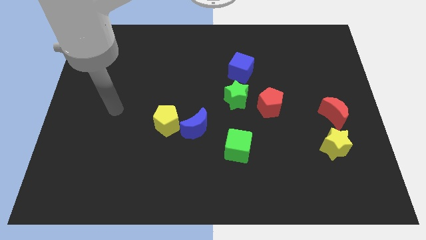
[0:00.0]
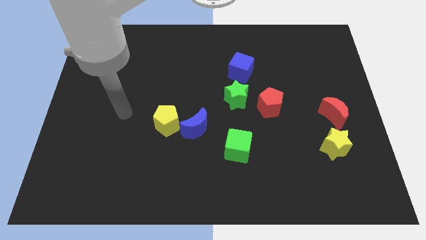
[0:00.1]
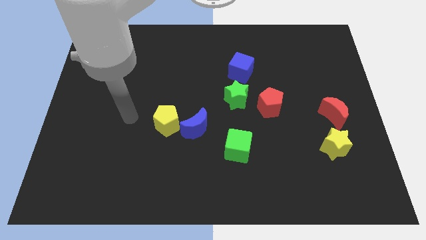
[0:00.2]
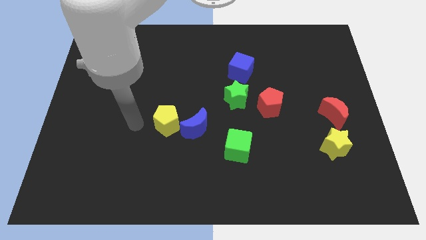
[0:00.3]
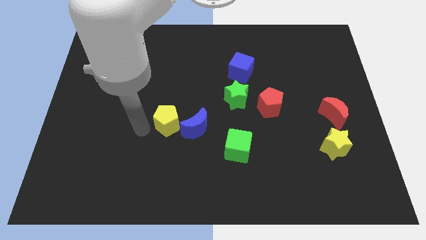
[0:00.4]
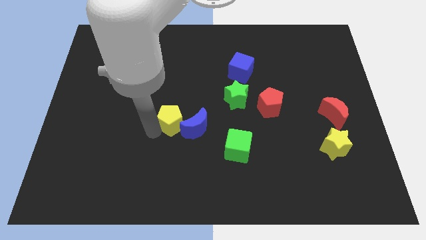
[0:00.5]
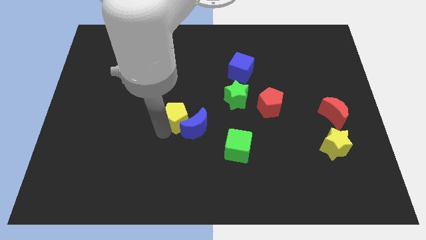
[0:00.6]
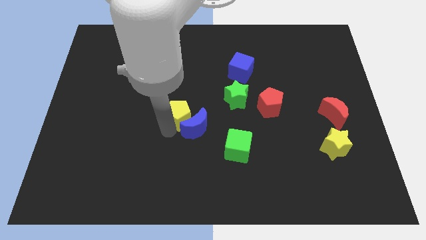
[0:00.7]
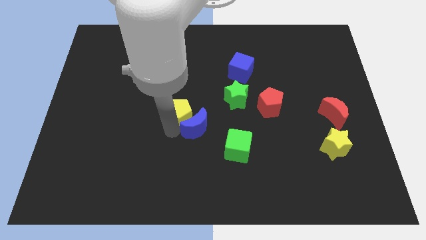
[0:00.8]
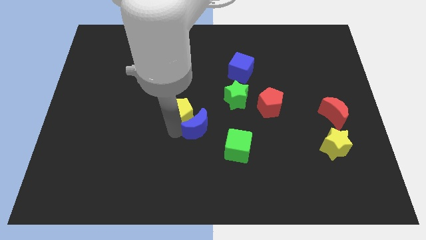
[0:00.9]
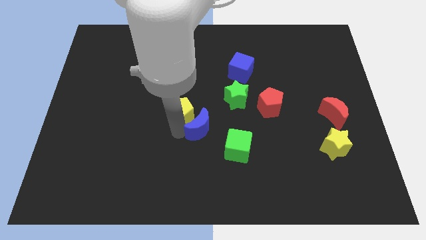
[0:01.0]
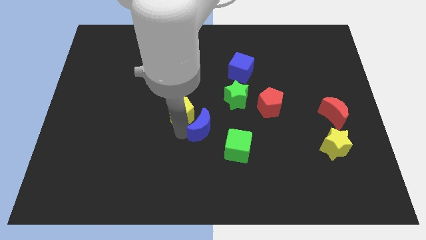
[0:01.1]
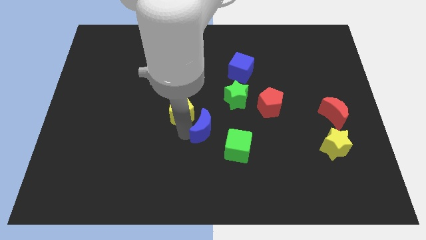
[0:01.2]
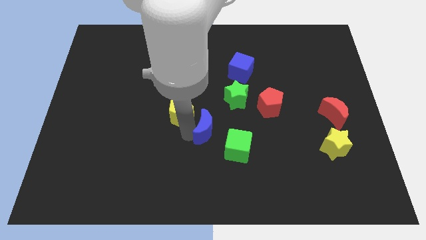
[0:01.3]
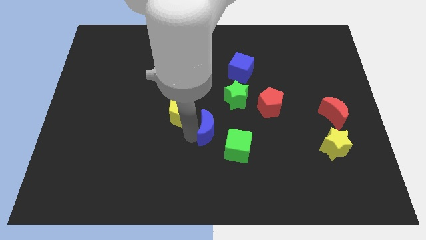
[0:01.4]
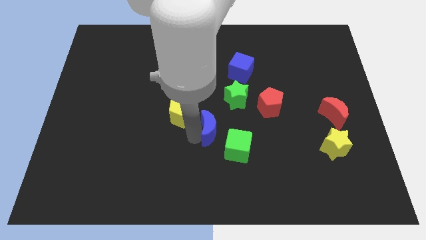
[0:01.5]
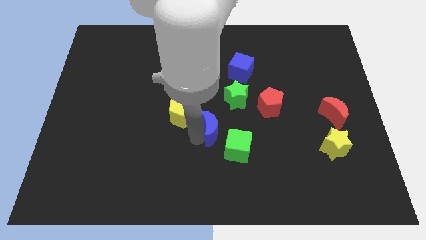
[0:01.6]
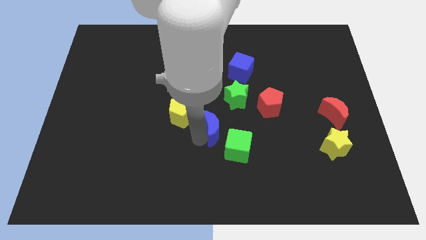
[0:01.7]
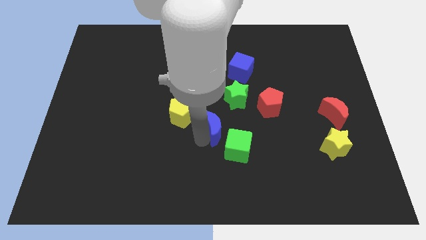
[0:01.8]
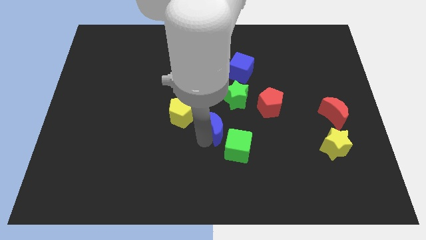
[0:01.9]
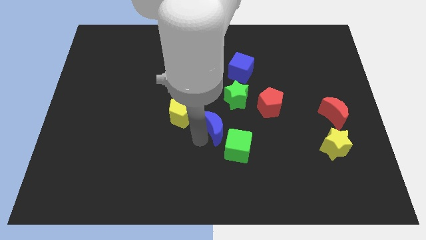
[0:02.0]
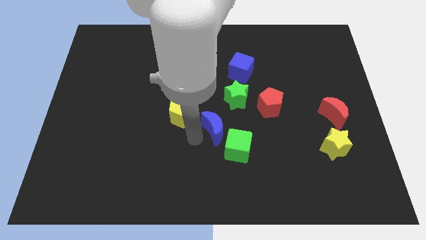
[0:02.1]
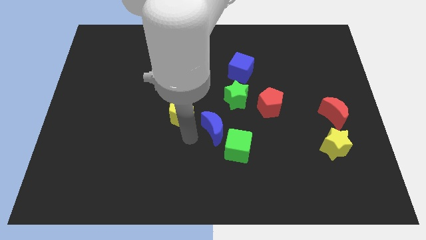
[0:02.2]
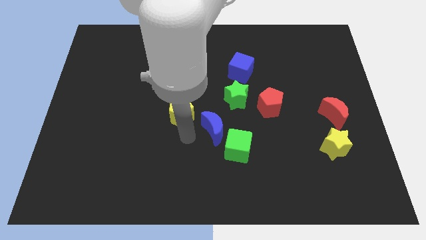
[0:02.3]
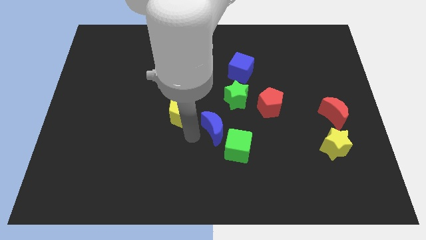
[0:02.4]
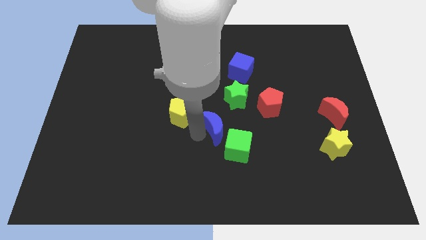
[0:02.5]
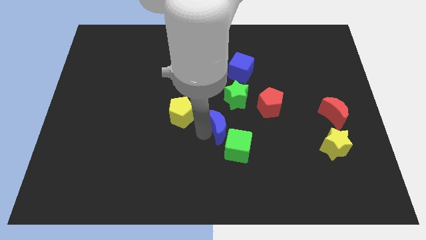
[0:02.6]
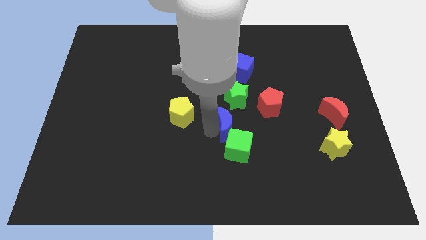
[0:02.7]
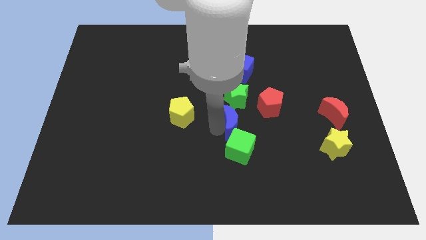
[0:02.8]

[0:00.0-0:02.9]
slightly push the blue moon to the right

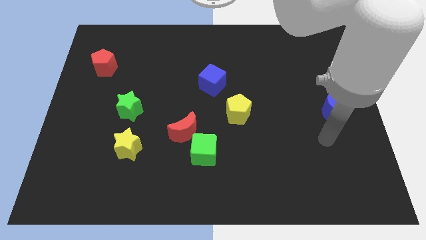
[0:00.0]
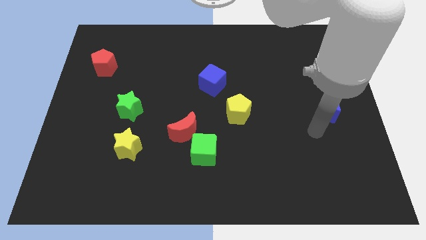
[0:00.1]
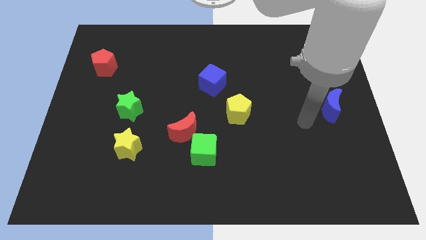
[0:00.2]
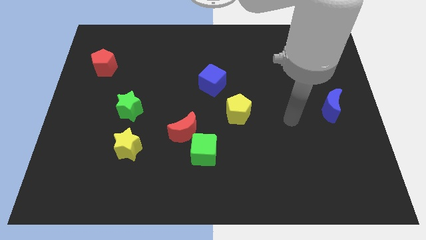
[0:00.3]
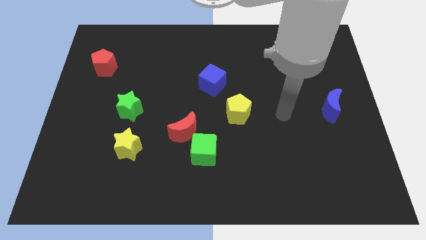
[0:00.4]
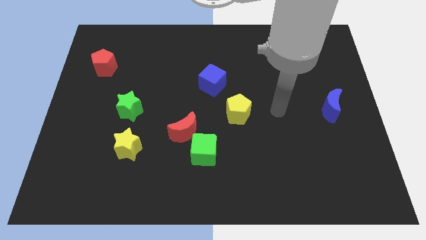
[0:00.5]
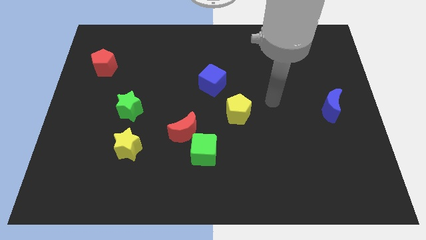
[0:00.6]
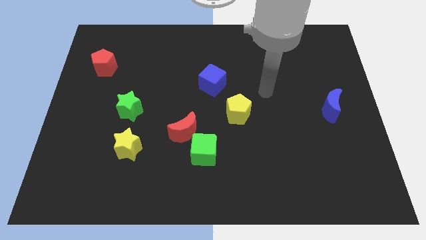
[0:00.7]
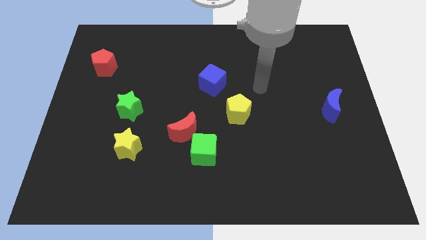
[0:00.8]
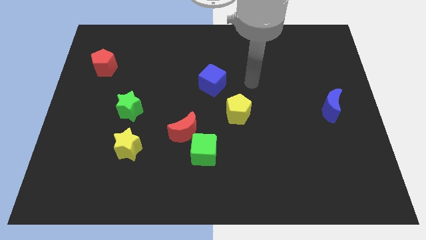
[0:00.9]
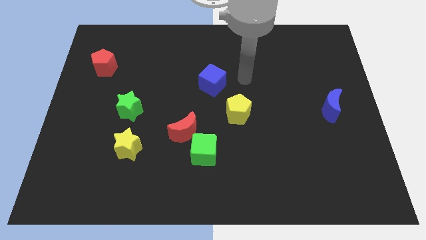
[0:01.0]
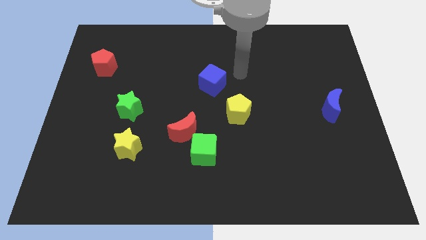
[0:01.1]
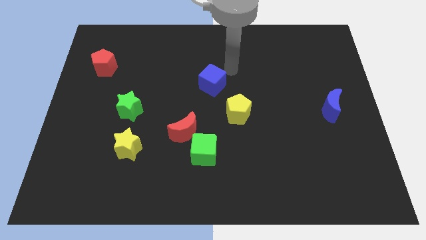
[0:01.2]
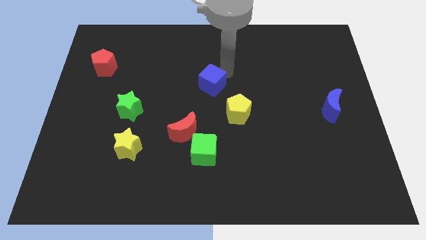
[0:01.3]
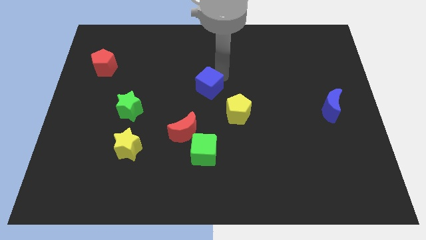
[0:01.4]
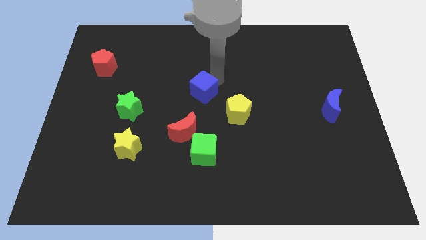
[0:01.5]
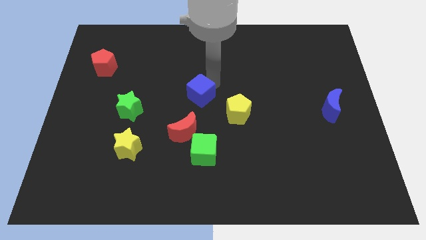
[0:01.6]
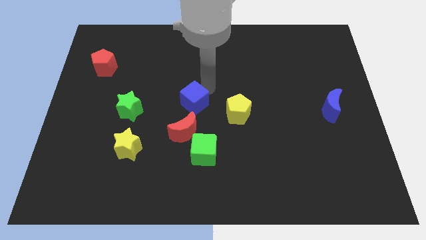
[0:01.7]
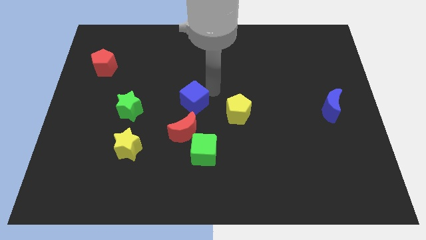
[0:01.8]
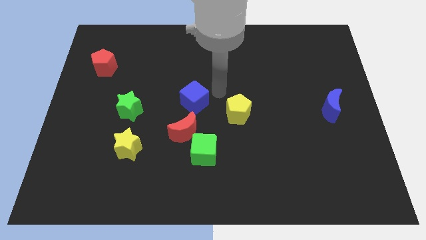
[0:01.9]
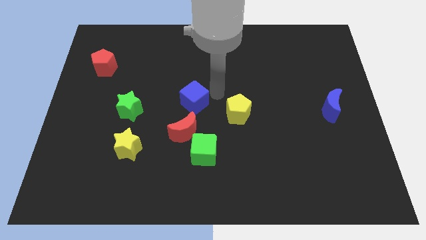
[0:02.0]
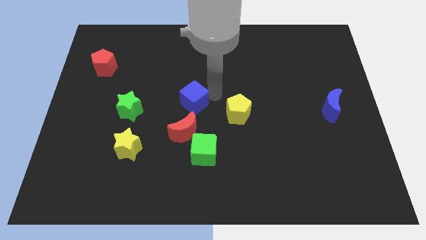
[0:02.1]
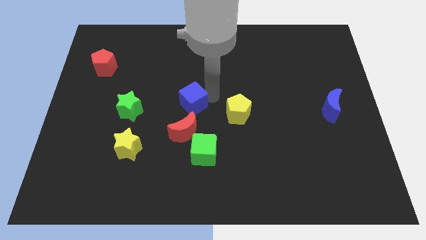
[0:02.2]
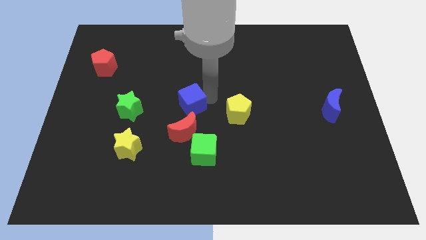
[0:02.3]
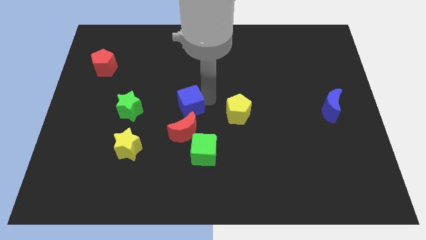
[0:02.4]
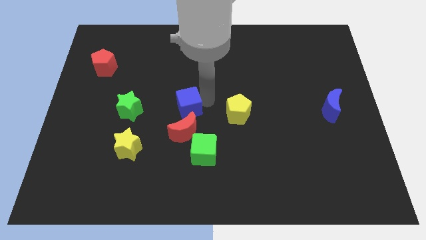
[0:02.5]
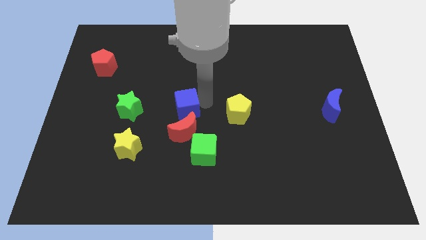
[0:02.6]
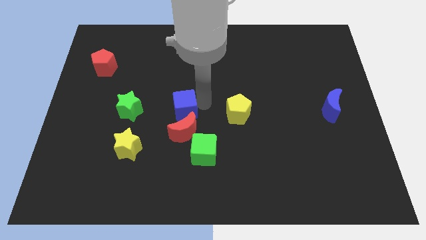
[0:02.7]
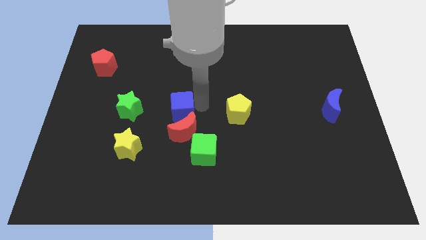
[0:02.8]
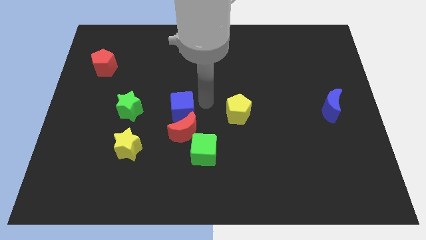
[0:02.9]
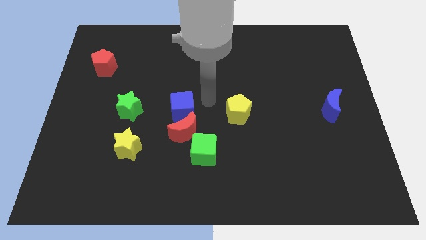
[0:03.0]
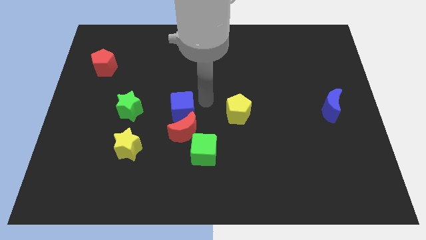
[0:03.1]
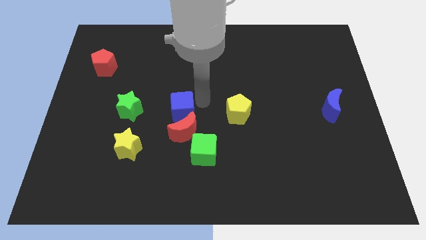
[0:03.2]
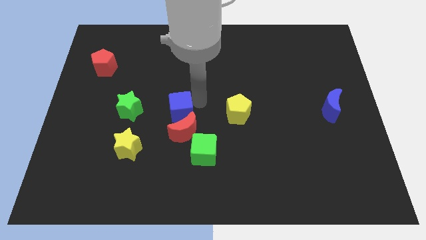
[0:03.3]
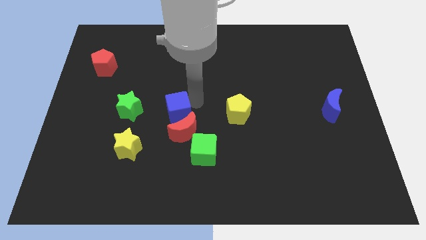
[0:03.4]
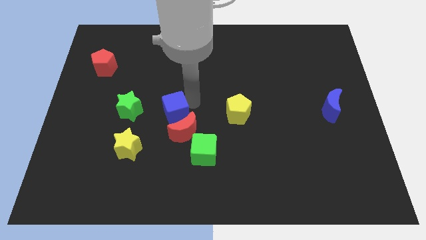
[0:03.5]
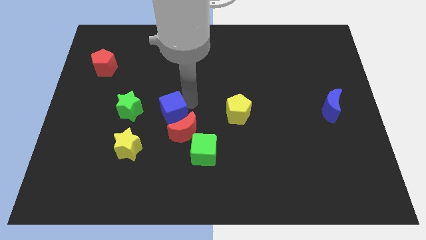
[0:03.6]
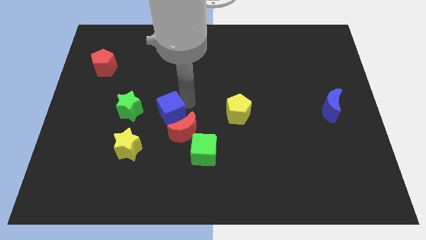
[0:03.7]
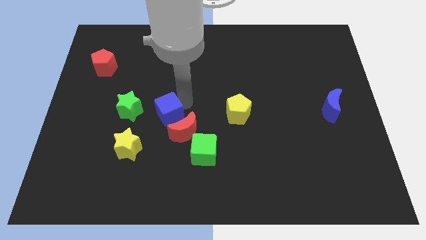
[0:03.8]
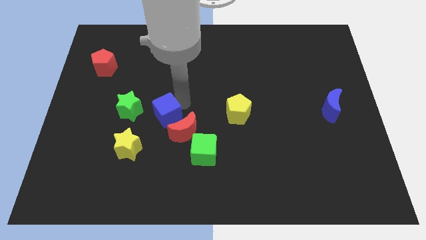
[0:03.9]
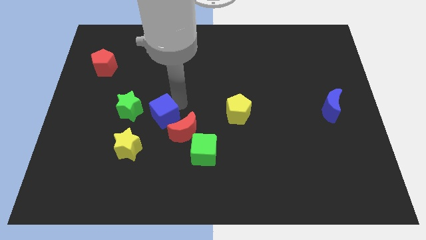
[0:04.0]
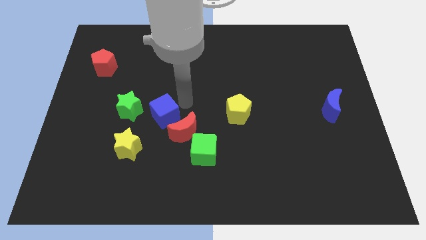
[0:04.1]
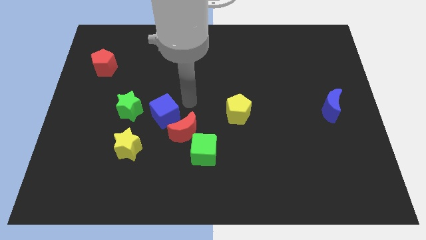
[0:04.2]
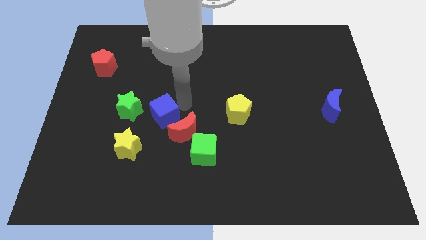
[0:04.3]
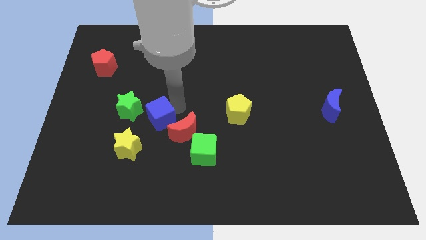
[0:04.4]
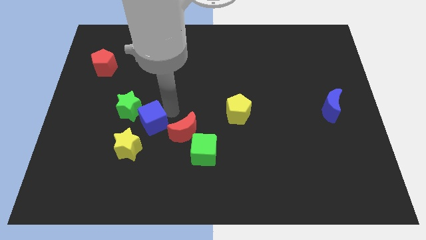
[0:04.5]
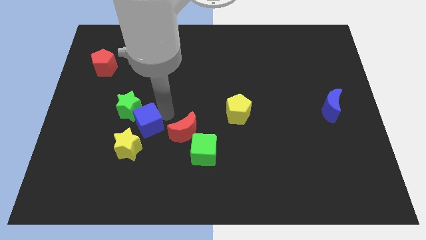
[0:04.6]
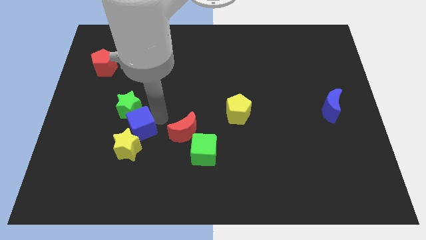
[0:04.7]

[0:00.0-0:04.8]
slide the blue cube diagonally down and left

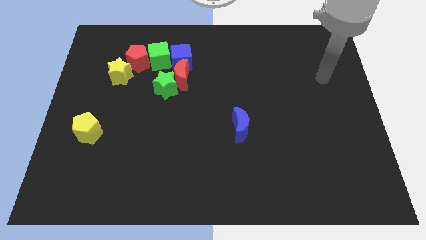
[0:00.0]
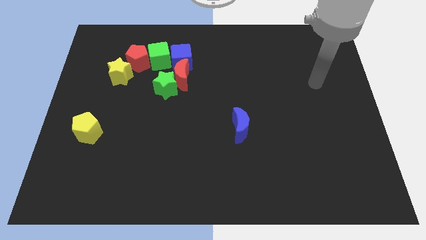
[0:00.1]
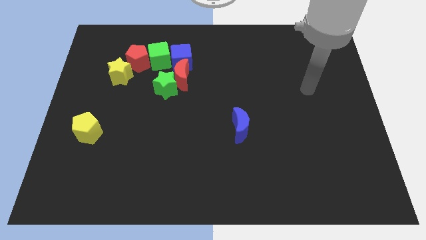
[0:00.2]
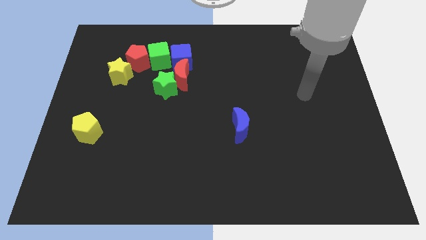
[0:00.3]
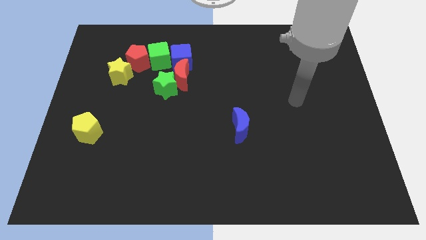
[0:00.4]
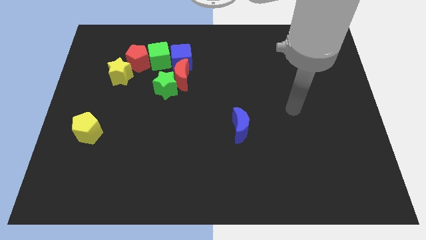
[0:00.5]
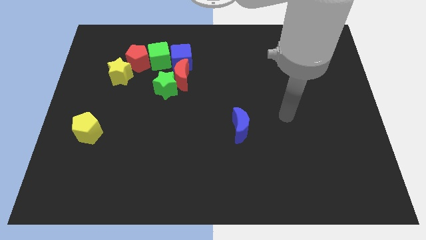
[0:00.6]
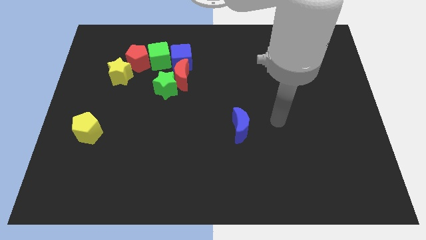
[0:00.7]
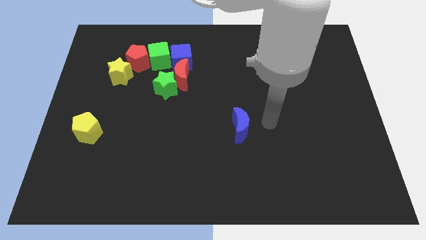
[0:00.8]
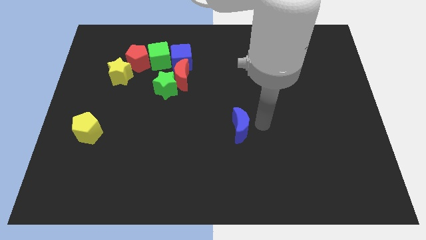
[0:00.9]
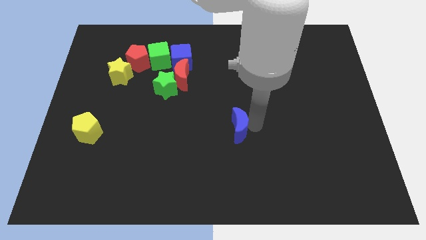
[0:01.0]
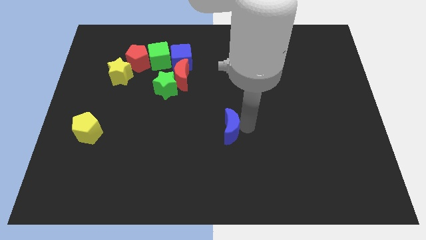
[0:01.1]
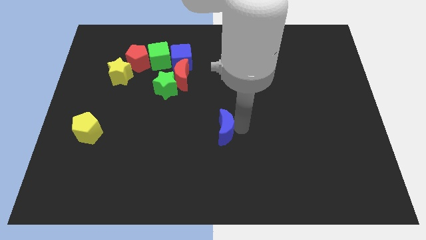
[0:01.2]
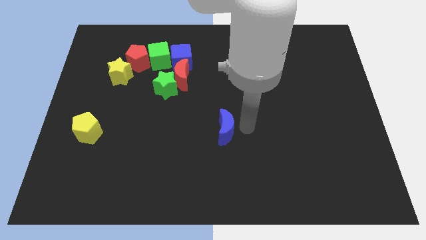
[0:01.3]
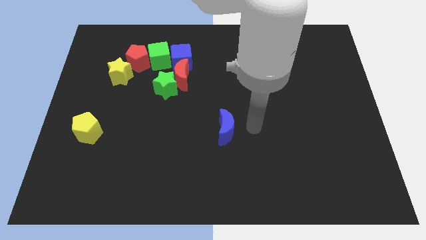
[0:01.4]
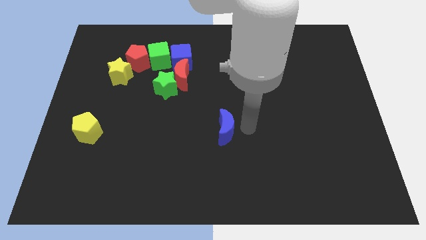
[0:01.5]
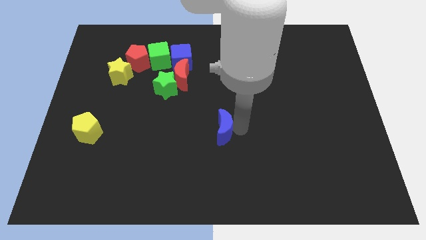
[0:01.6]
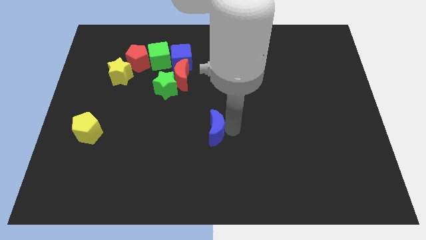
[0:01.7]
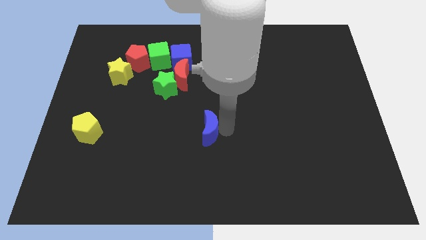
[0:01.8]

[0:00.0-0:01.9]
move the blue moon a little left
